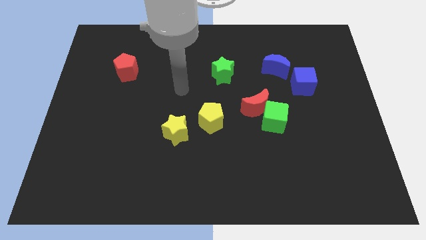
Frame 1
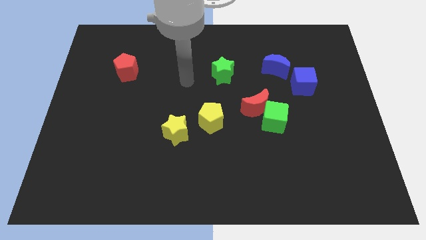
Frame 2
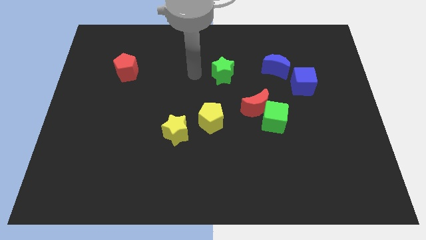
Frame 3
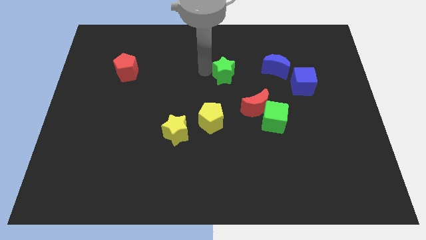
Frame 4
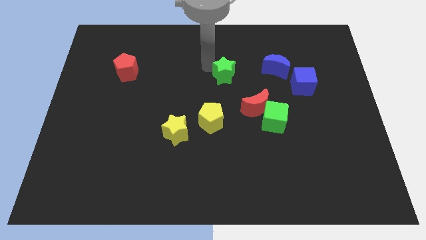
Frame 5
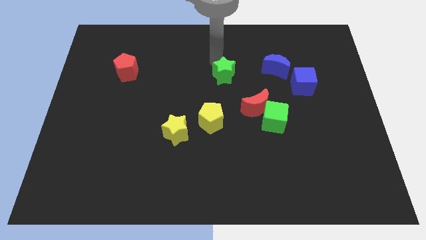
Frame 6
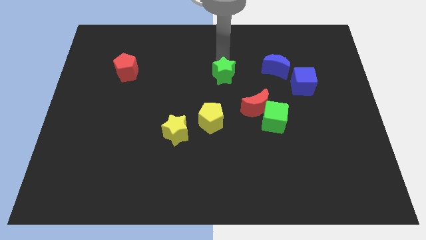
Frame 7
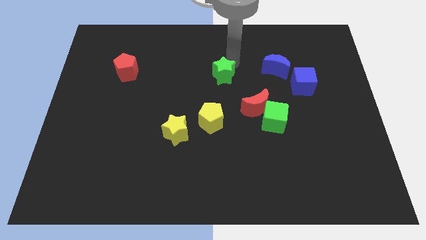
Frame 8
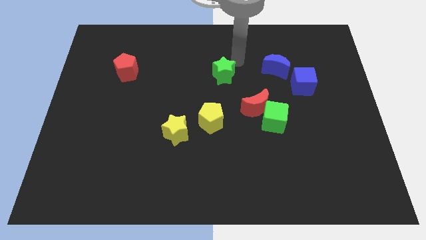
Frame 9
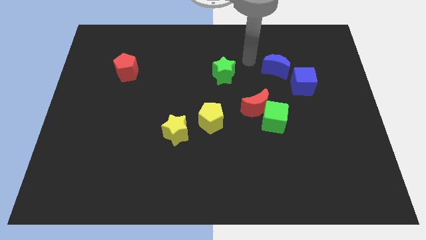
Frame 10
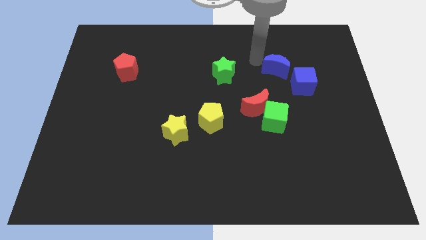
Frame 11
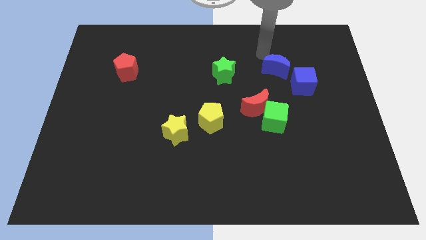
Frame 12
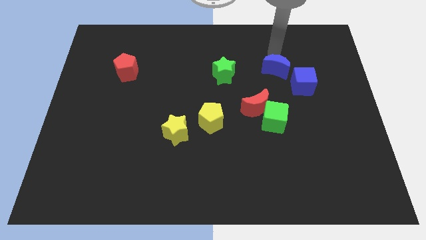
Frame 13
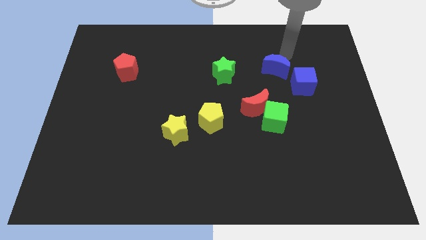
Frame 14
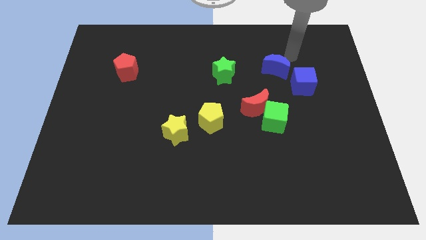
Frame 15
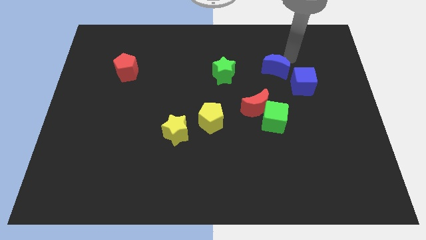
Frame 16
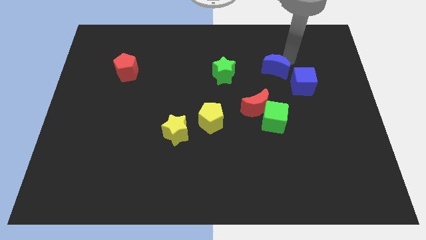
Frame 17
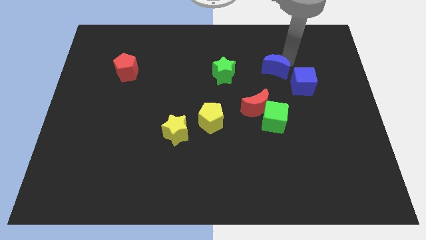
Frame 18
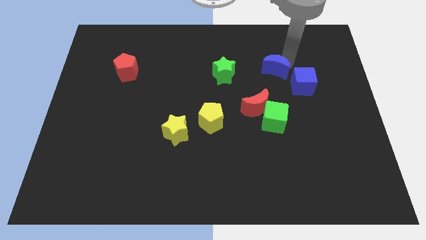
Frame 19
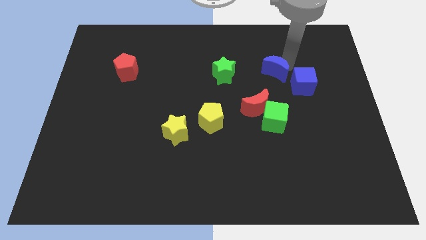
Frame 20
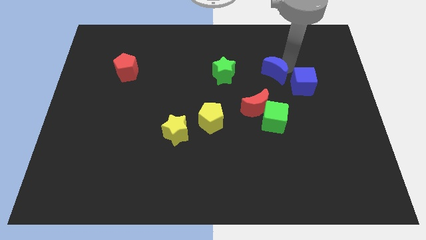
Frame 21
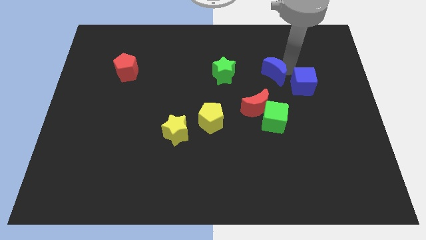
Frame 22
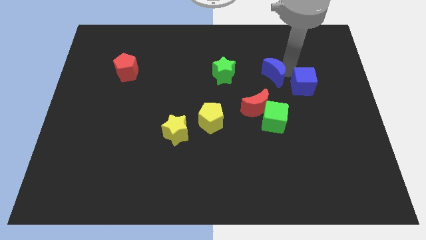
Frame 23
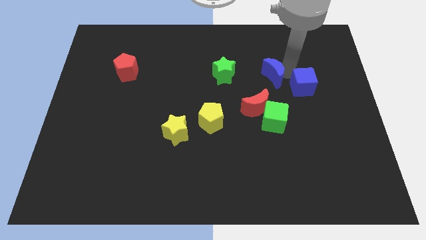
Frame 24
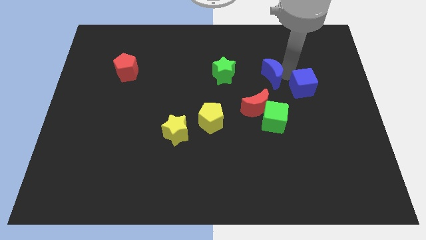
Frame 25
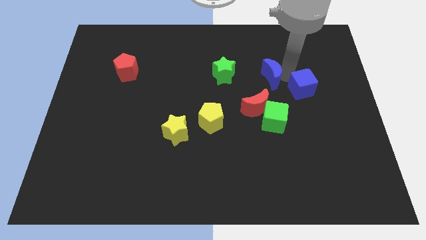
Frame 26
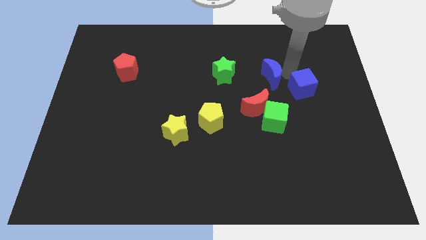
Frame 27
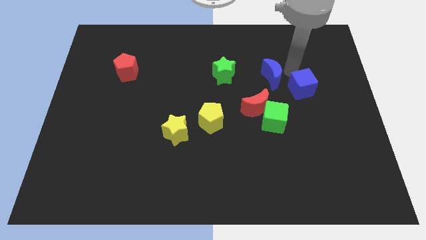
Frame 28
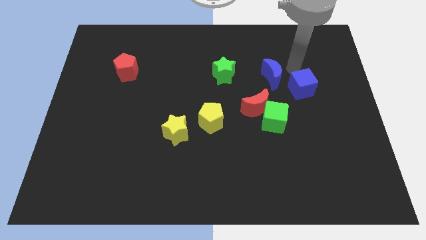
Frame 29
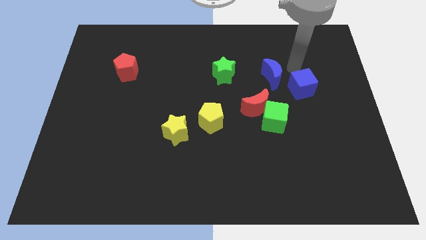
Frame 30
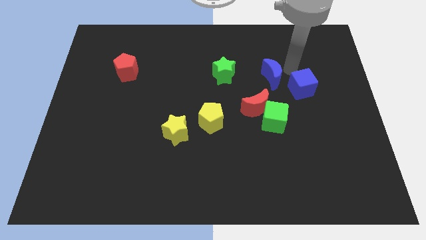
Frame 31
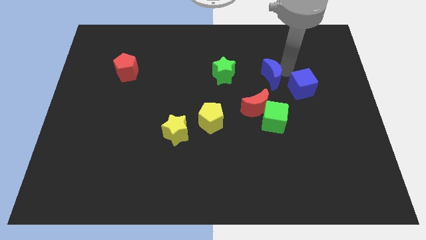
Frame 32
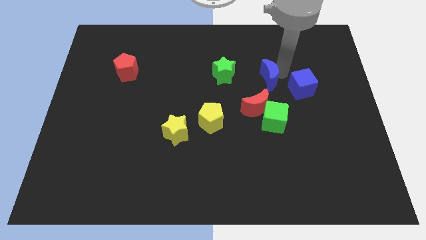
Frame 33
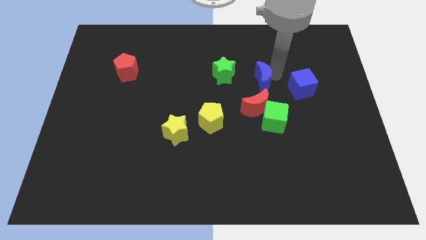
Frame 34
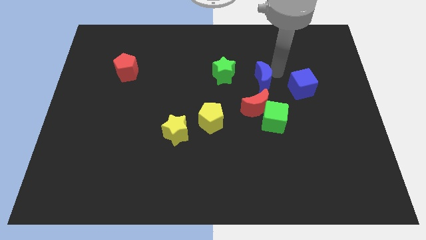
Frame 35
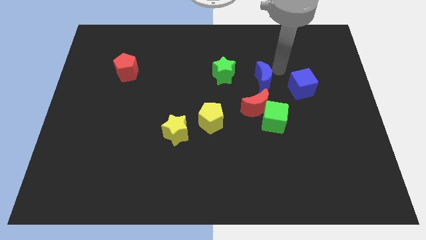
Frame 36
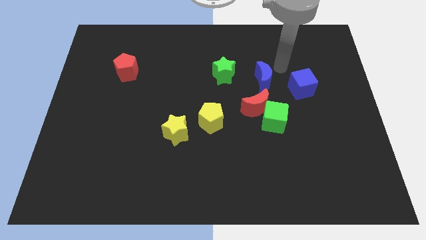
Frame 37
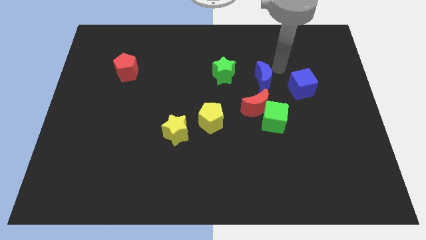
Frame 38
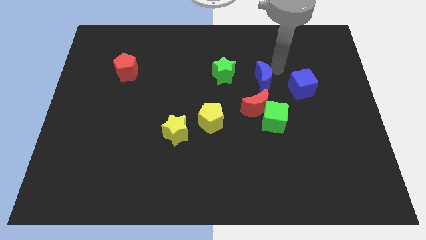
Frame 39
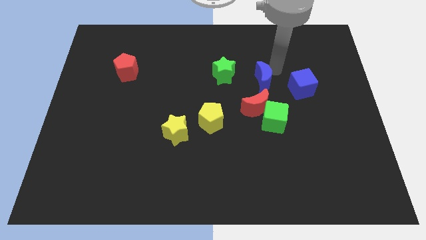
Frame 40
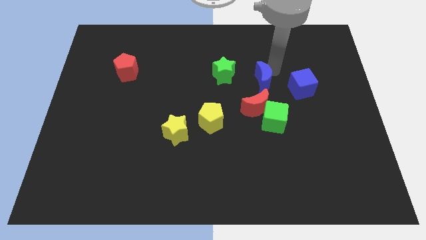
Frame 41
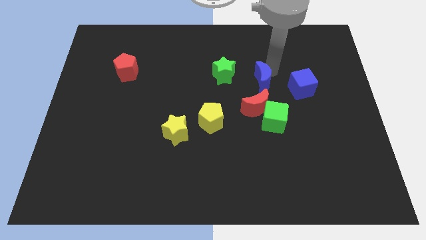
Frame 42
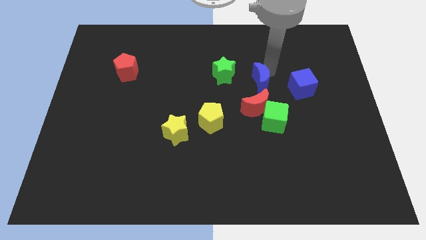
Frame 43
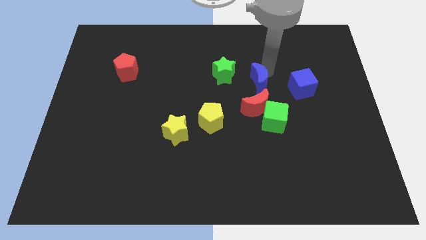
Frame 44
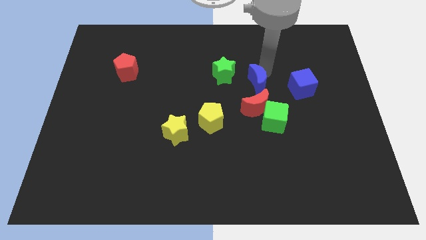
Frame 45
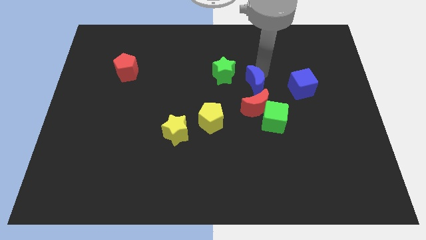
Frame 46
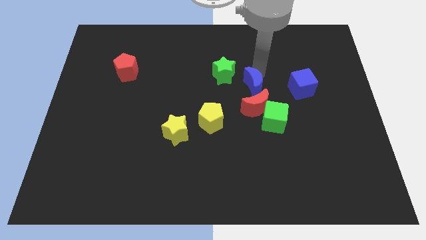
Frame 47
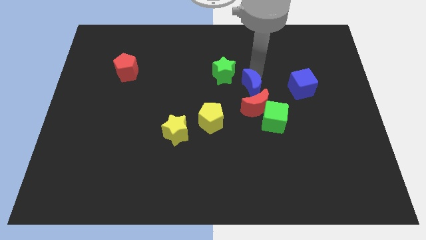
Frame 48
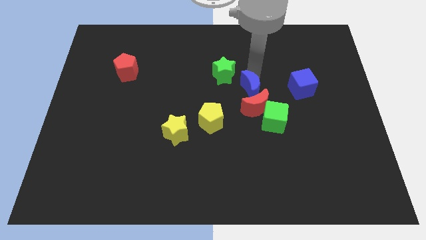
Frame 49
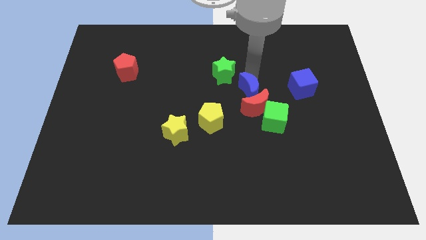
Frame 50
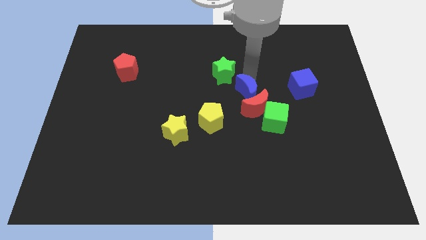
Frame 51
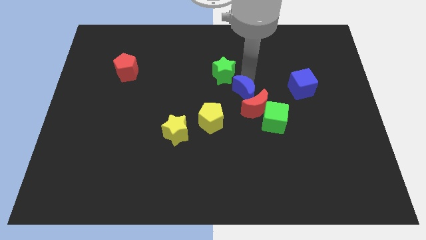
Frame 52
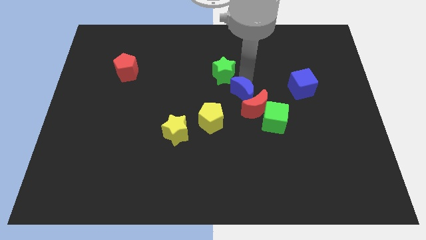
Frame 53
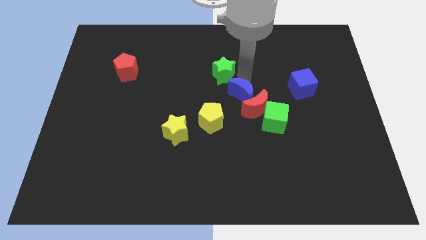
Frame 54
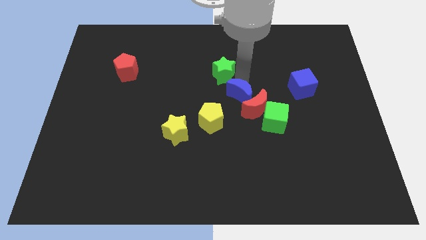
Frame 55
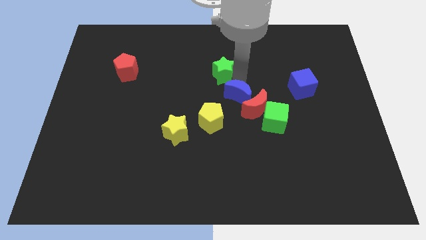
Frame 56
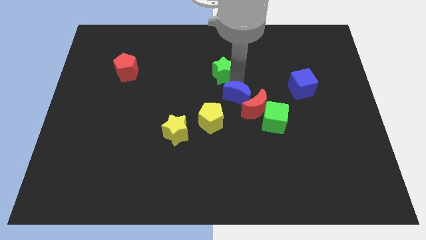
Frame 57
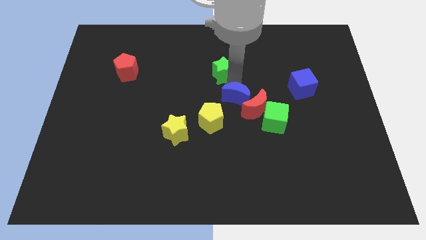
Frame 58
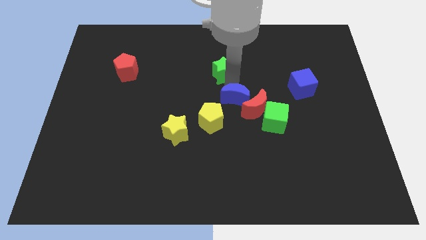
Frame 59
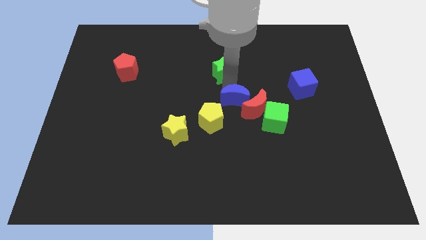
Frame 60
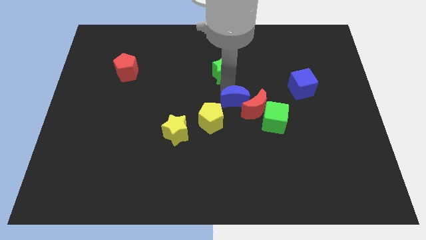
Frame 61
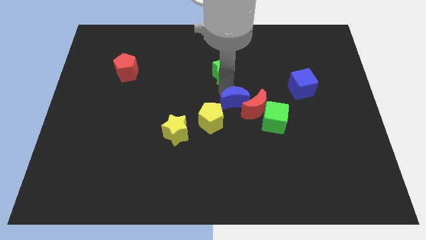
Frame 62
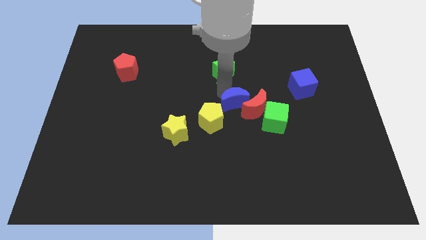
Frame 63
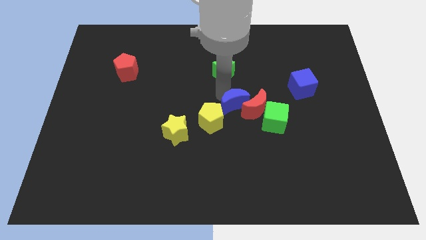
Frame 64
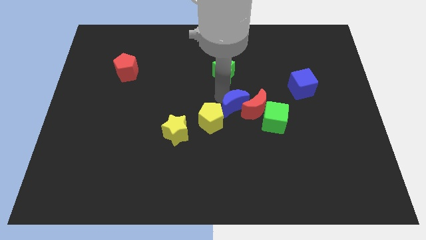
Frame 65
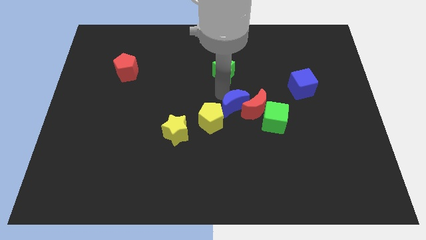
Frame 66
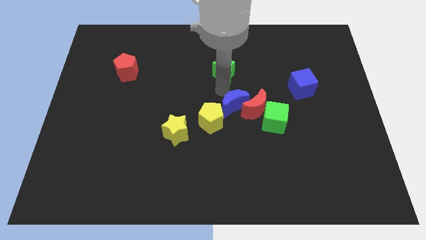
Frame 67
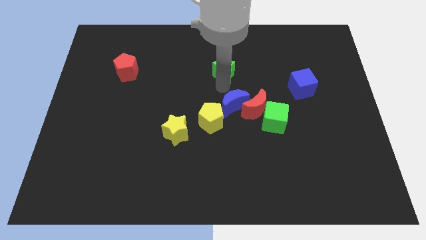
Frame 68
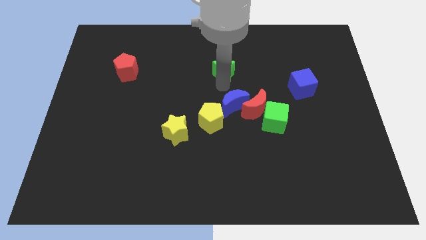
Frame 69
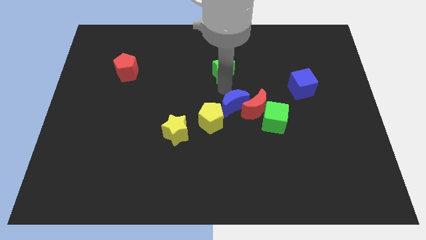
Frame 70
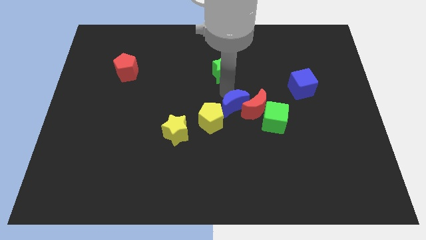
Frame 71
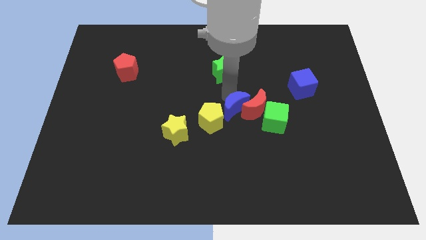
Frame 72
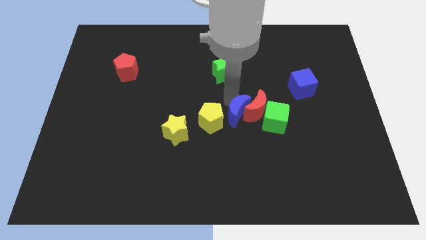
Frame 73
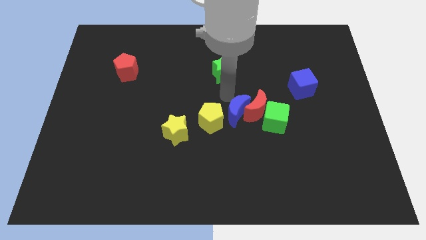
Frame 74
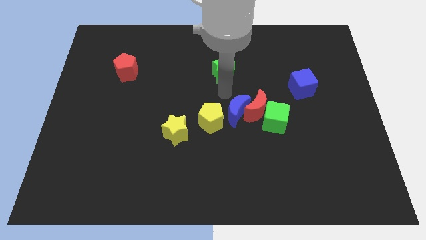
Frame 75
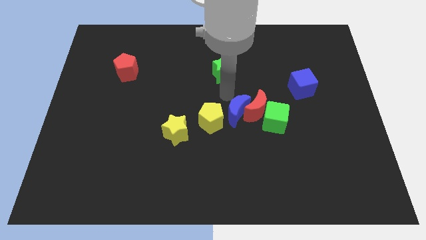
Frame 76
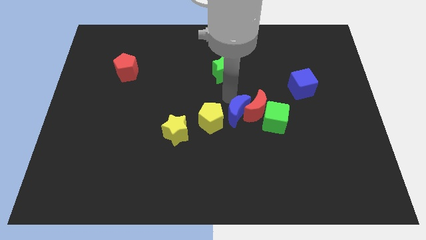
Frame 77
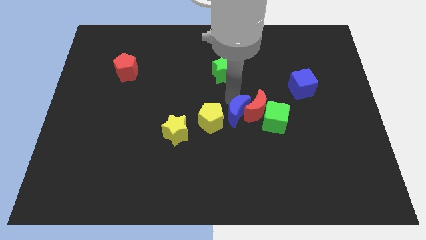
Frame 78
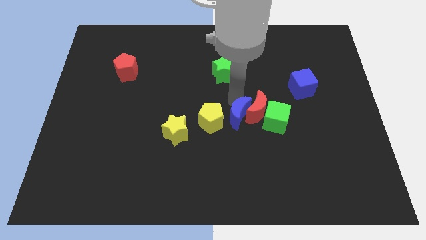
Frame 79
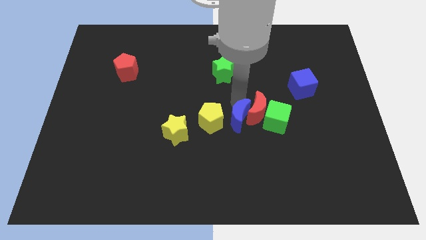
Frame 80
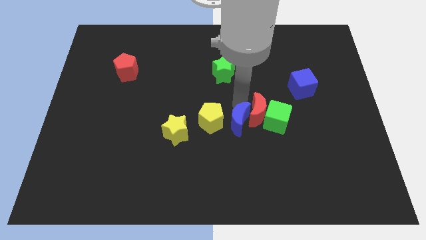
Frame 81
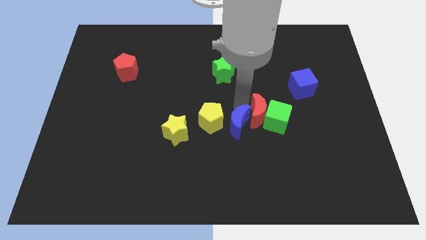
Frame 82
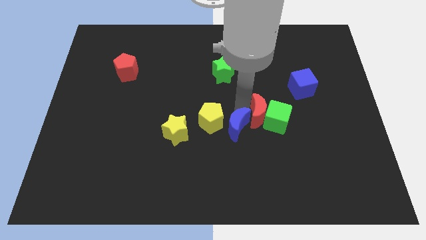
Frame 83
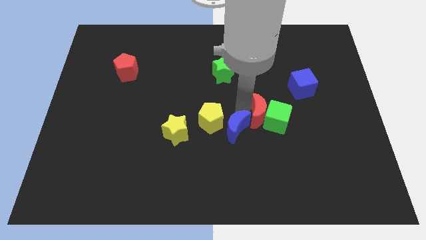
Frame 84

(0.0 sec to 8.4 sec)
move the blue moon to the bottom left side of the green cube
